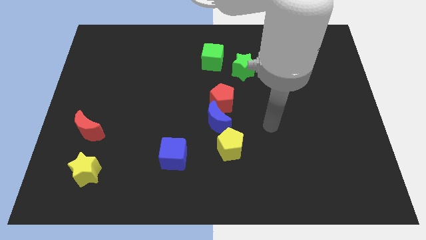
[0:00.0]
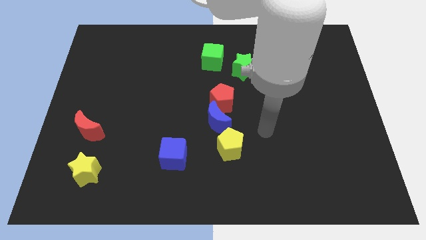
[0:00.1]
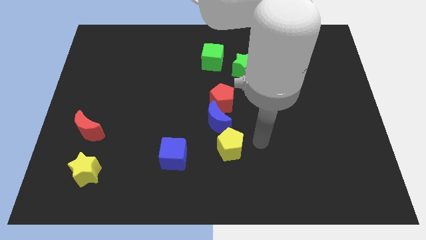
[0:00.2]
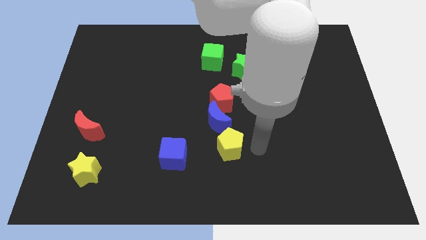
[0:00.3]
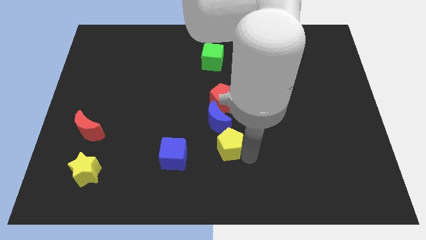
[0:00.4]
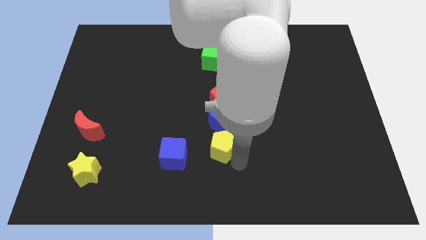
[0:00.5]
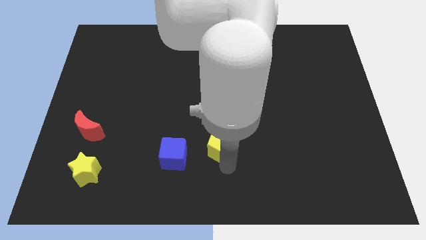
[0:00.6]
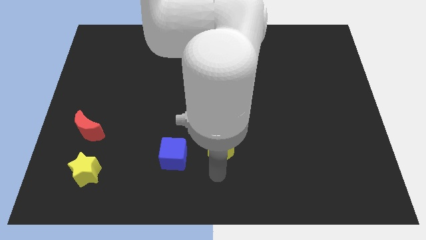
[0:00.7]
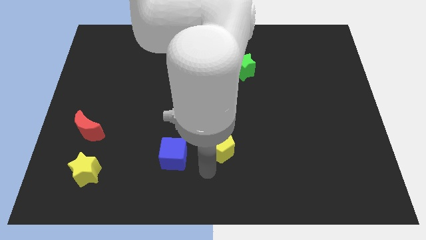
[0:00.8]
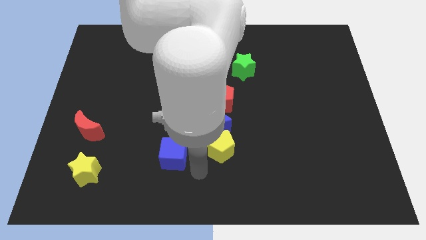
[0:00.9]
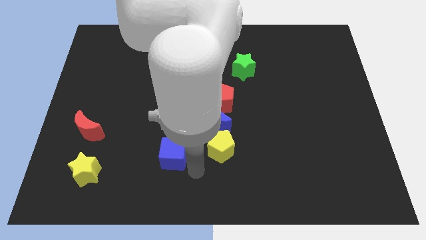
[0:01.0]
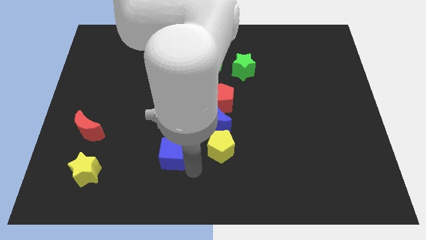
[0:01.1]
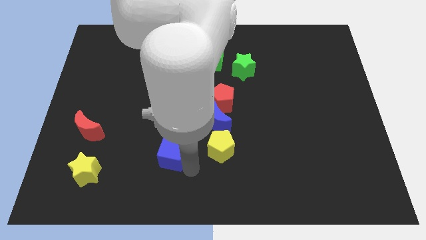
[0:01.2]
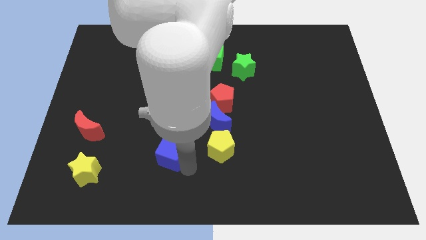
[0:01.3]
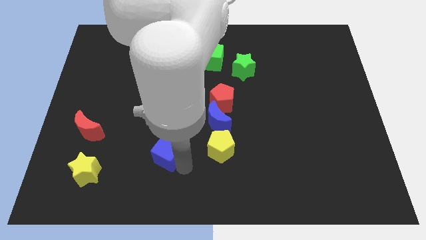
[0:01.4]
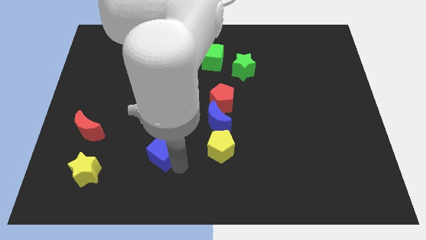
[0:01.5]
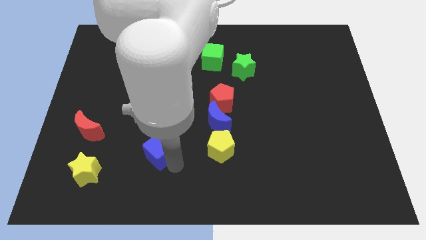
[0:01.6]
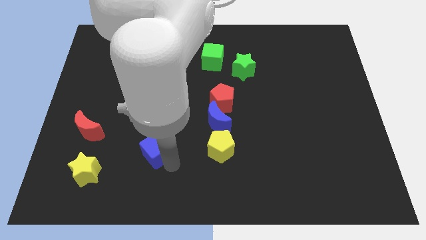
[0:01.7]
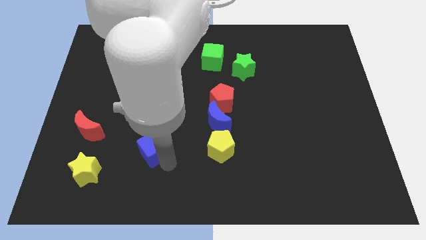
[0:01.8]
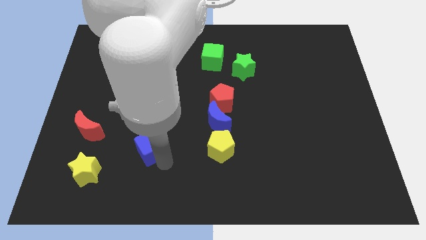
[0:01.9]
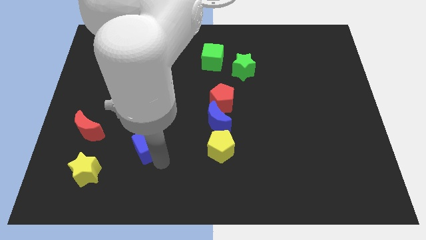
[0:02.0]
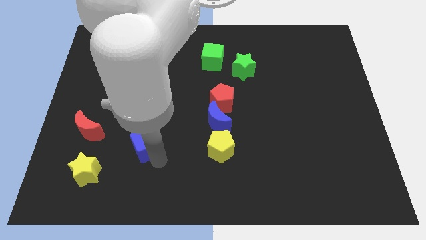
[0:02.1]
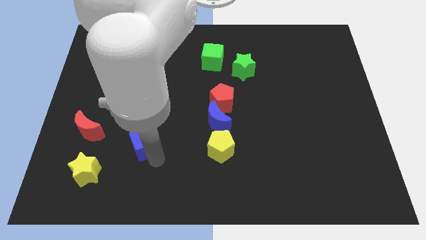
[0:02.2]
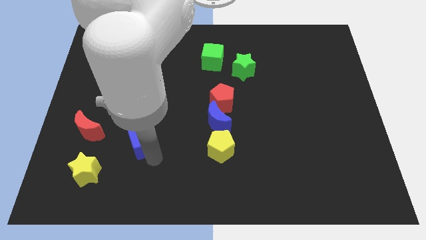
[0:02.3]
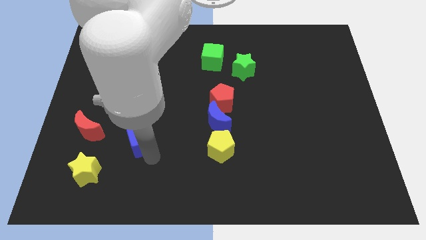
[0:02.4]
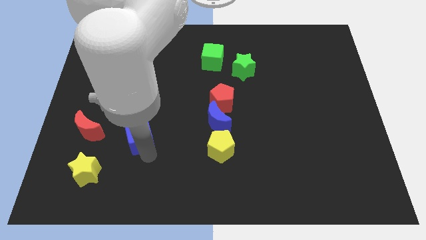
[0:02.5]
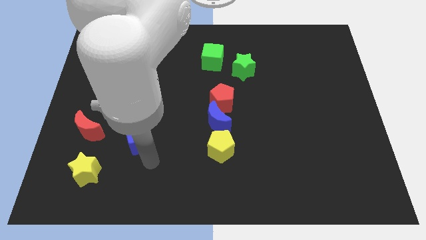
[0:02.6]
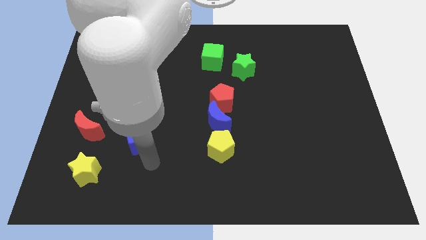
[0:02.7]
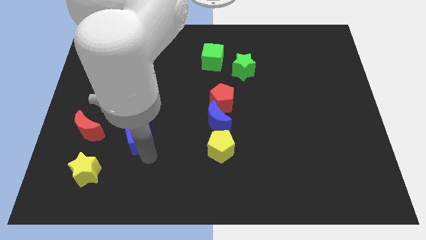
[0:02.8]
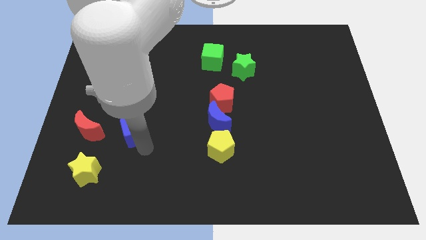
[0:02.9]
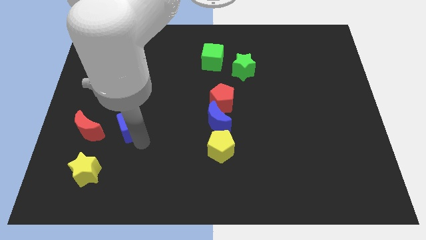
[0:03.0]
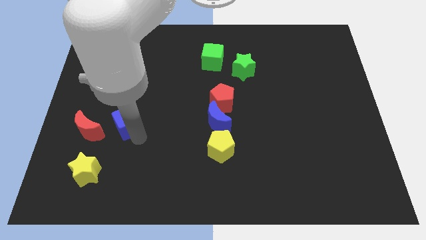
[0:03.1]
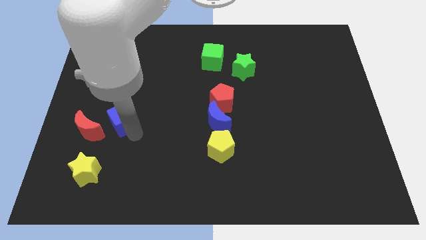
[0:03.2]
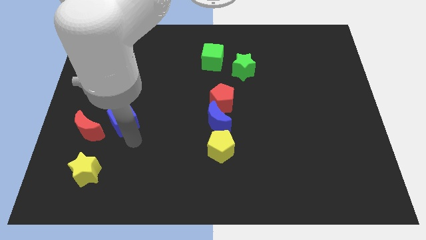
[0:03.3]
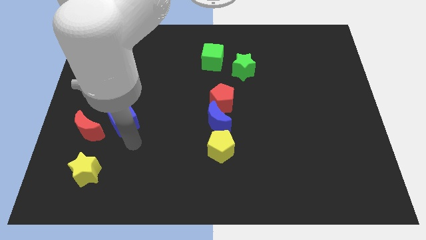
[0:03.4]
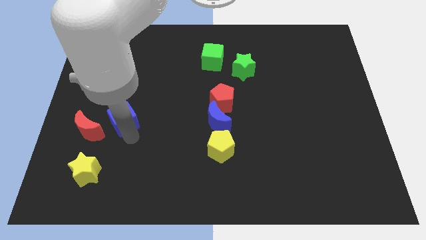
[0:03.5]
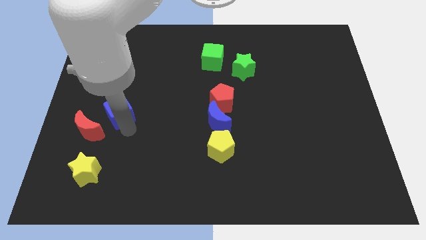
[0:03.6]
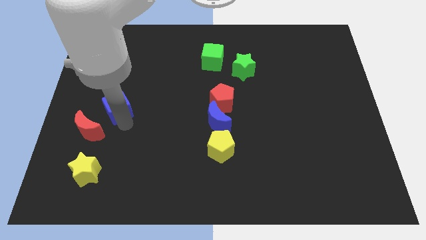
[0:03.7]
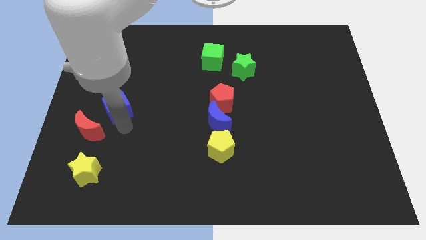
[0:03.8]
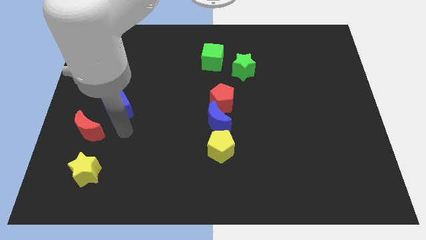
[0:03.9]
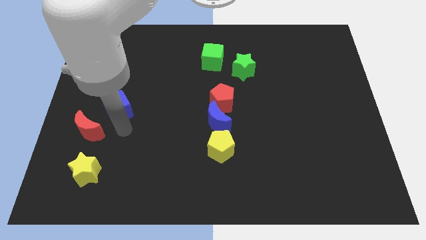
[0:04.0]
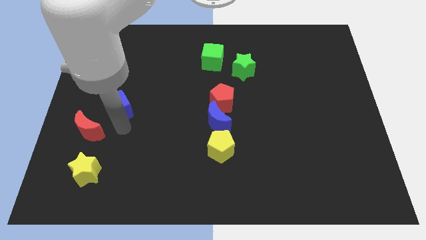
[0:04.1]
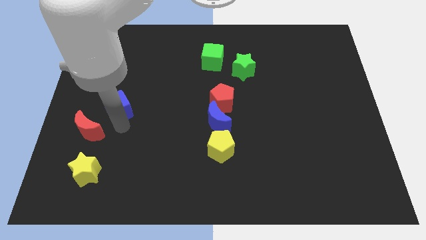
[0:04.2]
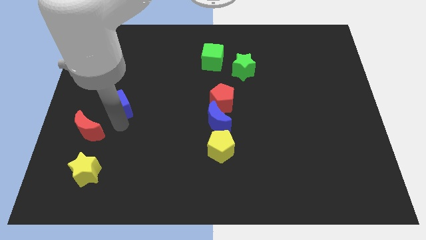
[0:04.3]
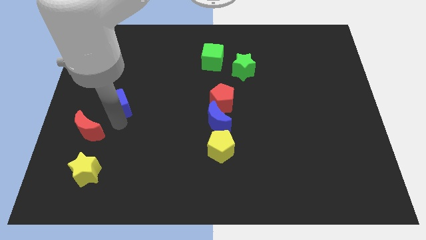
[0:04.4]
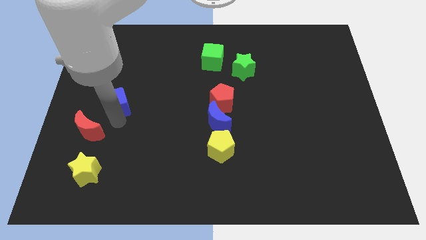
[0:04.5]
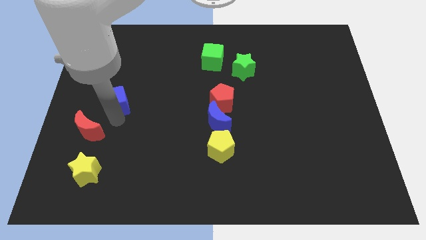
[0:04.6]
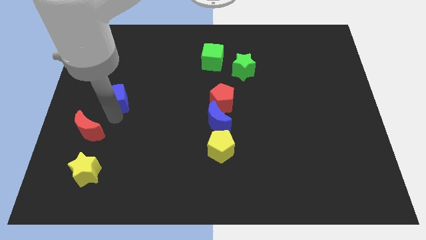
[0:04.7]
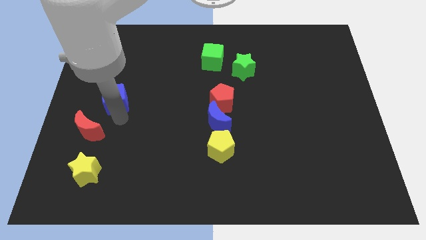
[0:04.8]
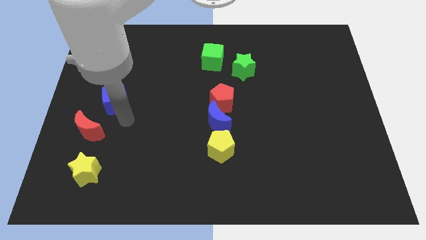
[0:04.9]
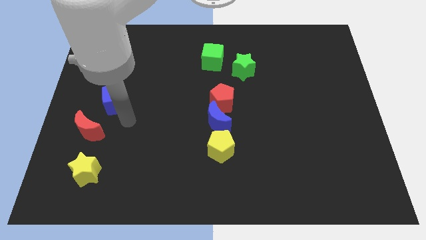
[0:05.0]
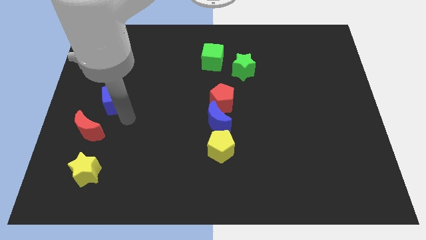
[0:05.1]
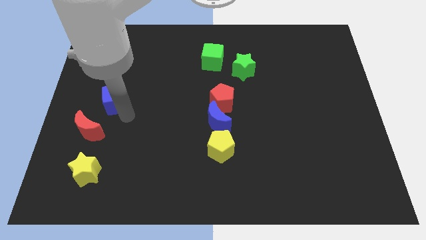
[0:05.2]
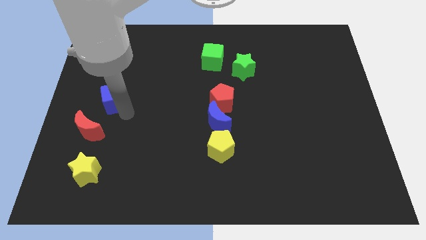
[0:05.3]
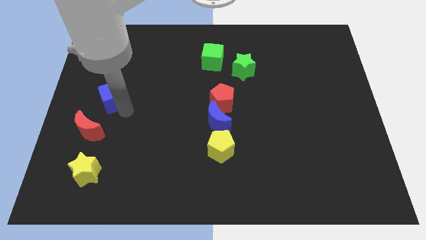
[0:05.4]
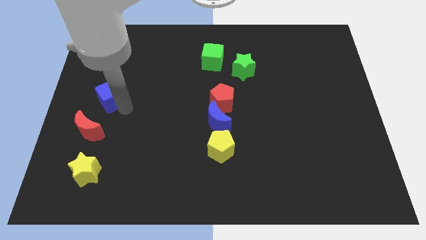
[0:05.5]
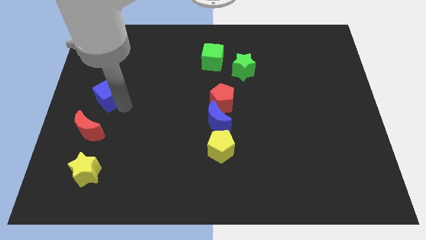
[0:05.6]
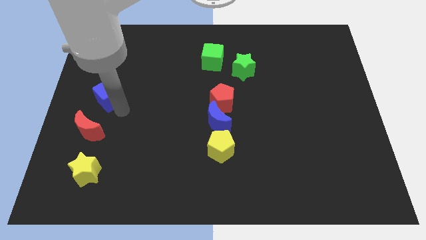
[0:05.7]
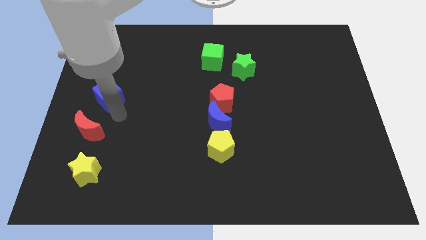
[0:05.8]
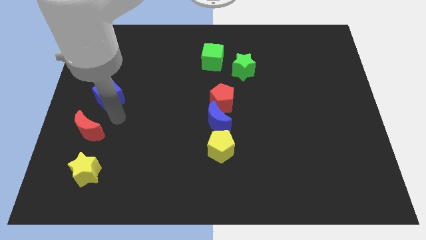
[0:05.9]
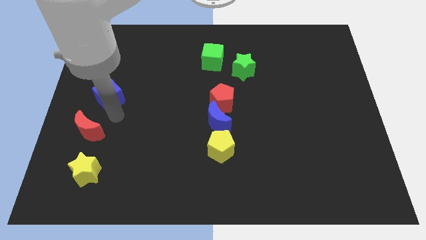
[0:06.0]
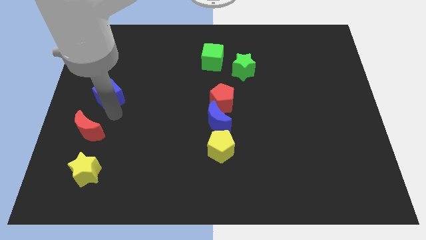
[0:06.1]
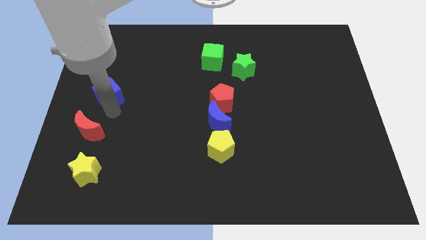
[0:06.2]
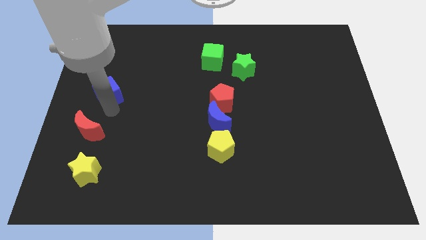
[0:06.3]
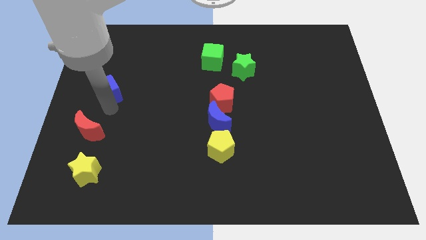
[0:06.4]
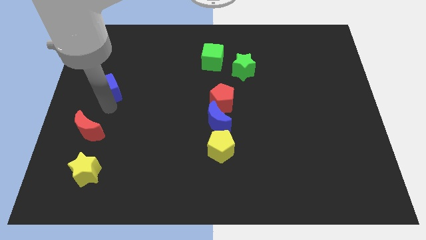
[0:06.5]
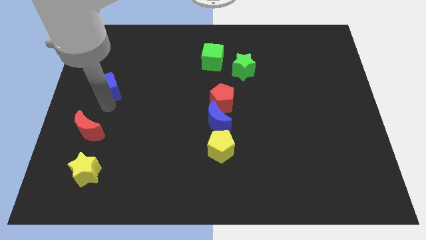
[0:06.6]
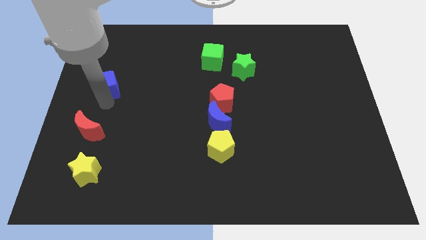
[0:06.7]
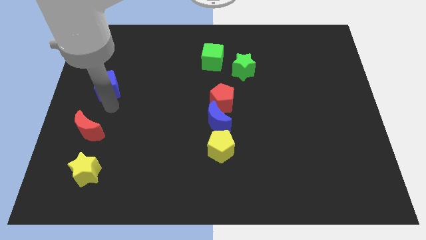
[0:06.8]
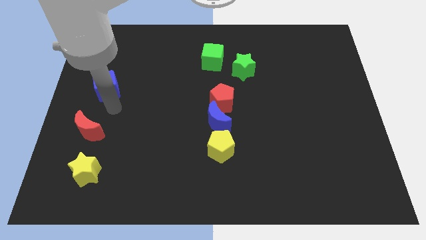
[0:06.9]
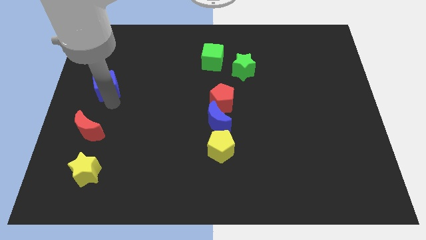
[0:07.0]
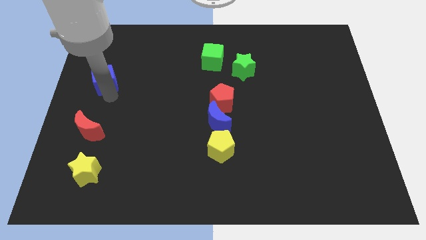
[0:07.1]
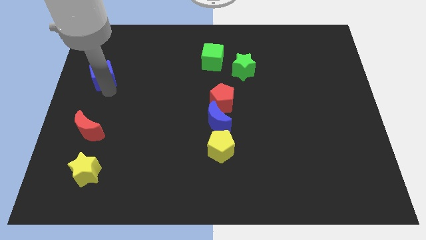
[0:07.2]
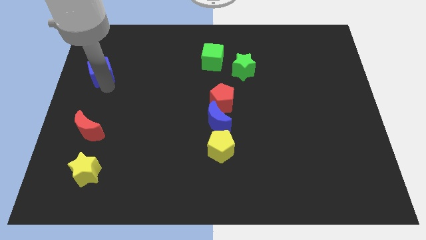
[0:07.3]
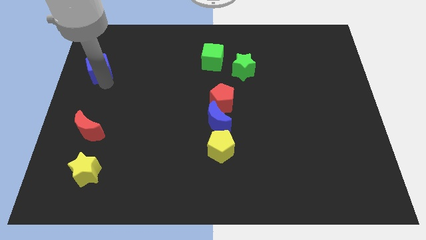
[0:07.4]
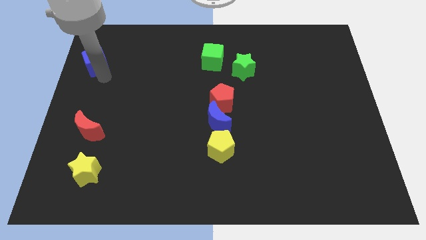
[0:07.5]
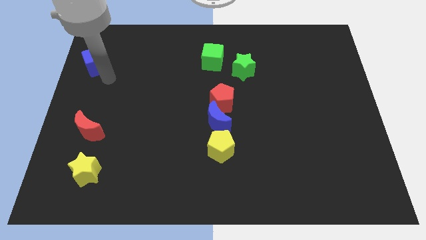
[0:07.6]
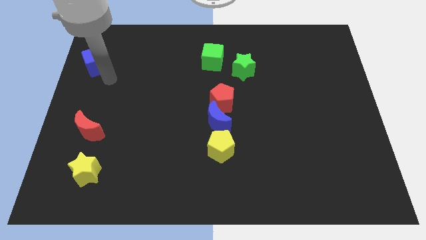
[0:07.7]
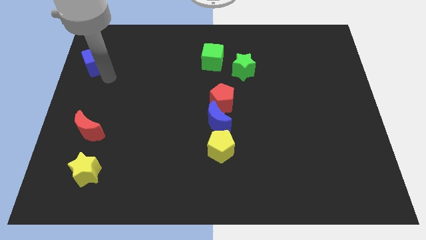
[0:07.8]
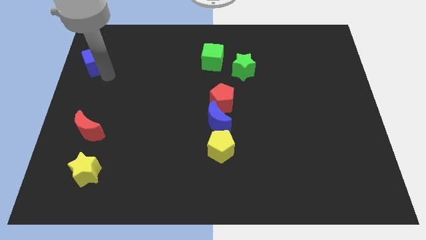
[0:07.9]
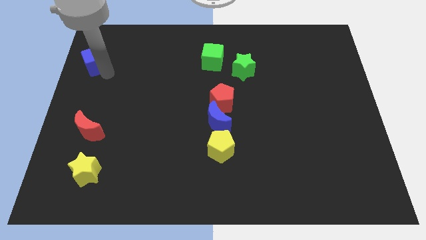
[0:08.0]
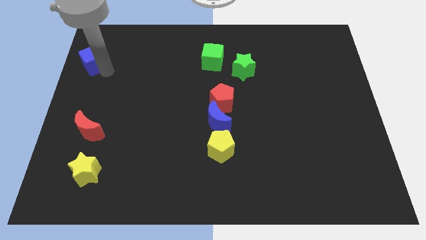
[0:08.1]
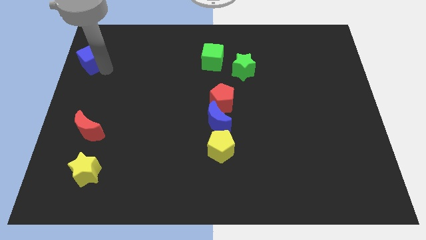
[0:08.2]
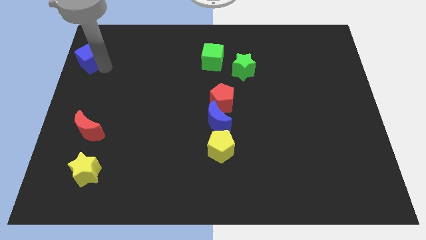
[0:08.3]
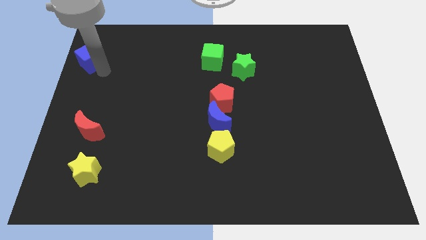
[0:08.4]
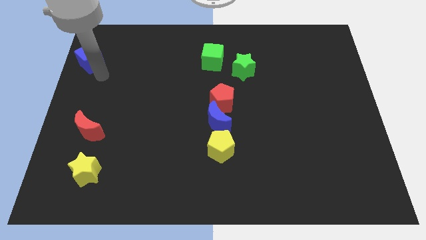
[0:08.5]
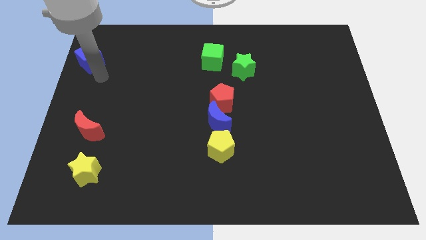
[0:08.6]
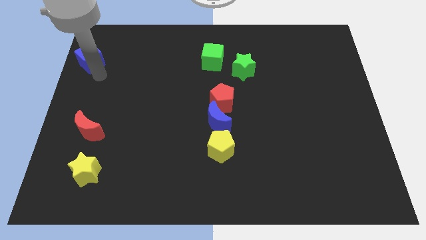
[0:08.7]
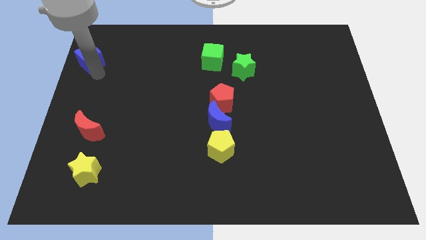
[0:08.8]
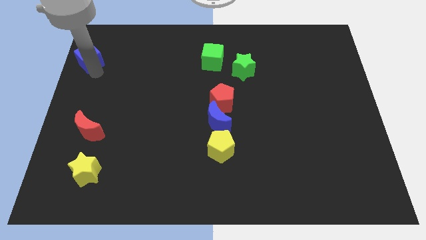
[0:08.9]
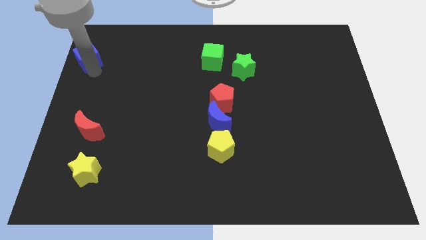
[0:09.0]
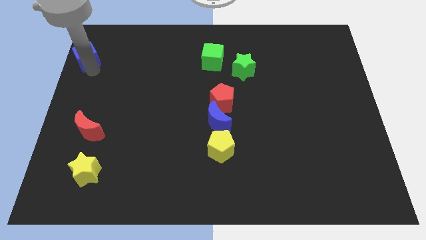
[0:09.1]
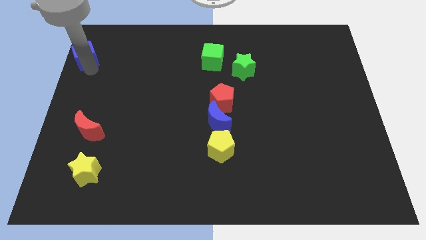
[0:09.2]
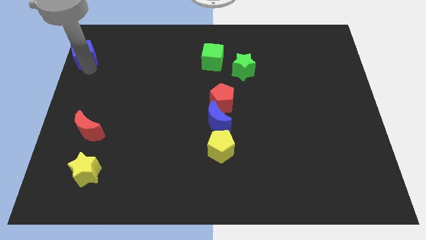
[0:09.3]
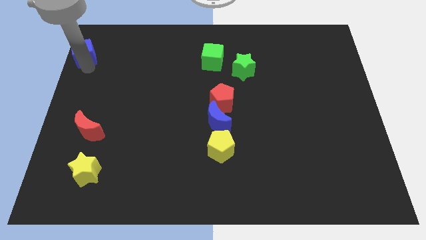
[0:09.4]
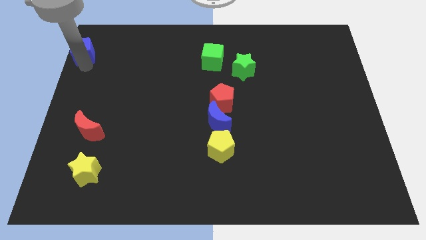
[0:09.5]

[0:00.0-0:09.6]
move the blue cube to the top left
